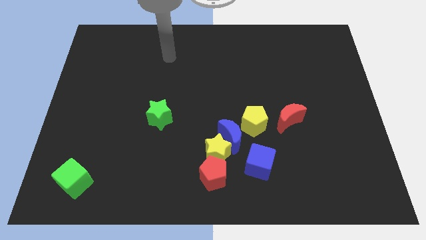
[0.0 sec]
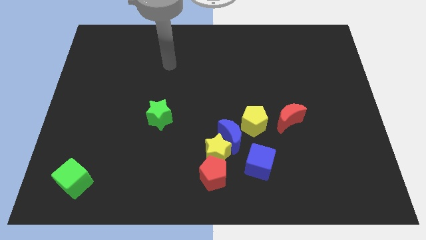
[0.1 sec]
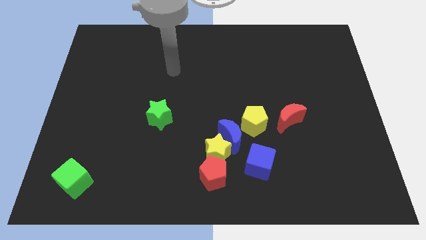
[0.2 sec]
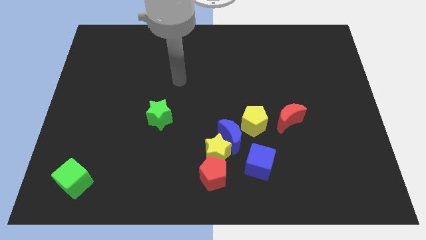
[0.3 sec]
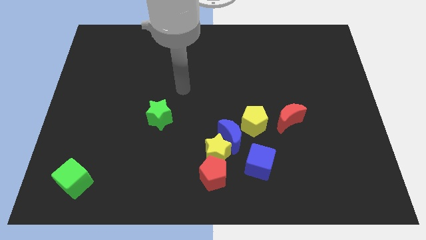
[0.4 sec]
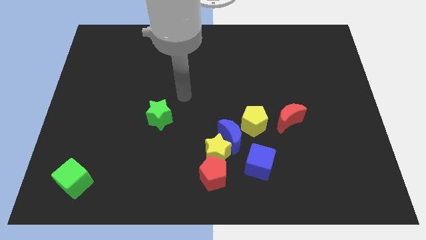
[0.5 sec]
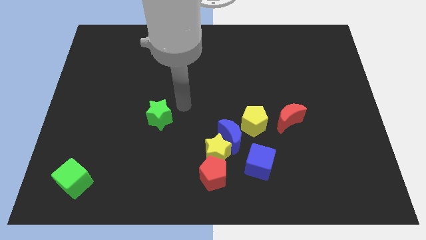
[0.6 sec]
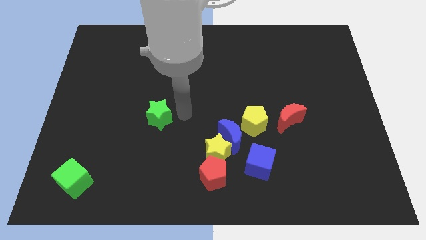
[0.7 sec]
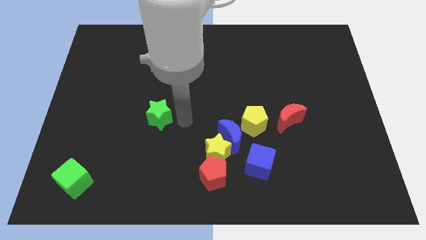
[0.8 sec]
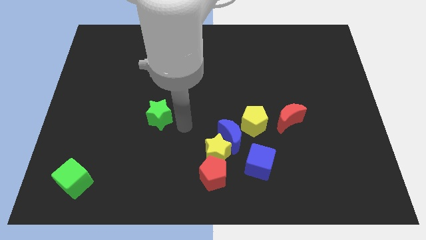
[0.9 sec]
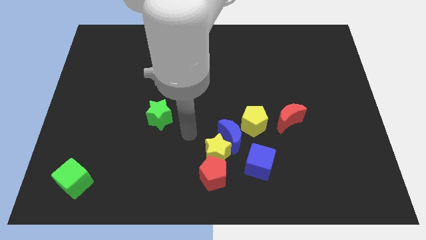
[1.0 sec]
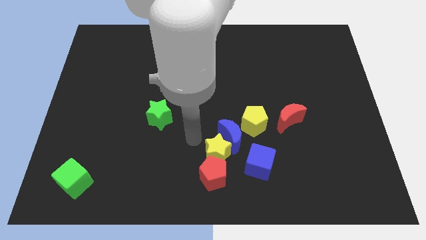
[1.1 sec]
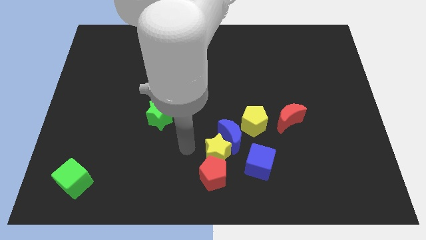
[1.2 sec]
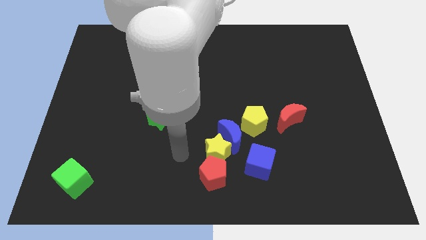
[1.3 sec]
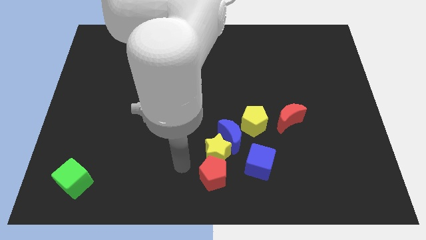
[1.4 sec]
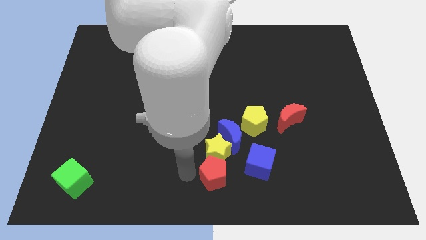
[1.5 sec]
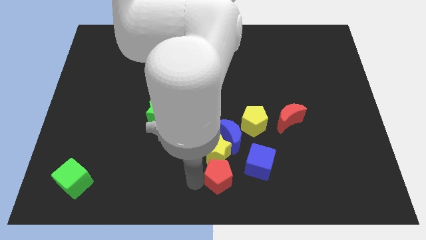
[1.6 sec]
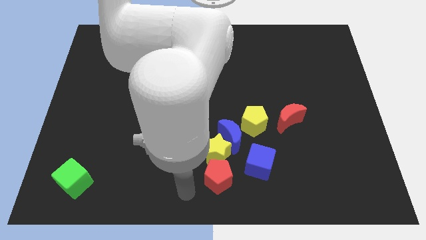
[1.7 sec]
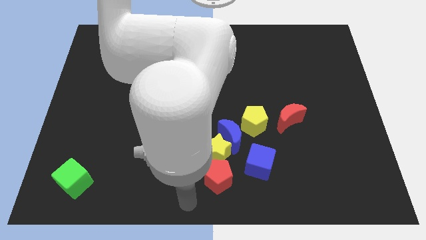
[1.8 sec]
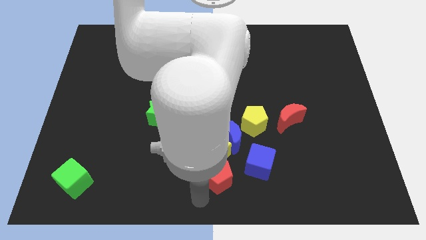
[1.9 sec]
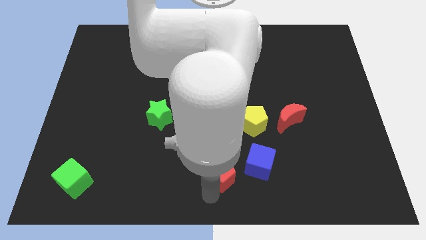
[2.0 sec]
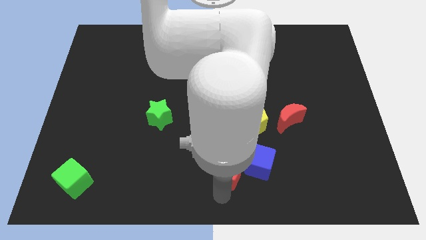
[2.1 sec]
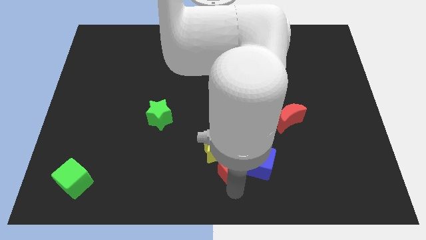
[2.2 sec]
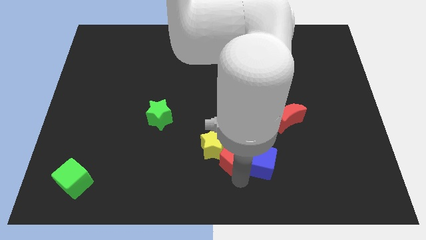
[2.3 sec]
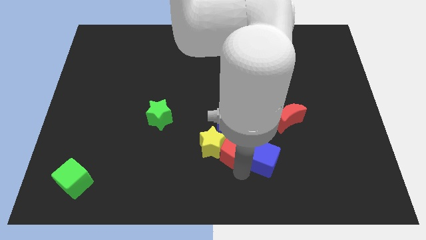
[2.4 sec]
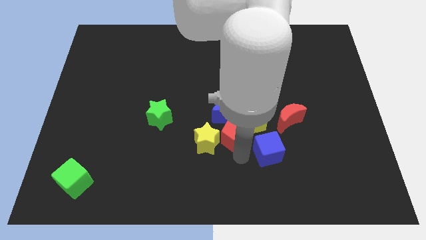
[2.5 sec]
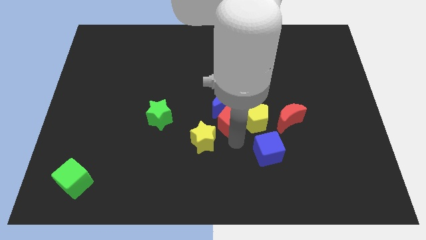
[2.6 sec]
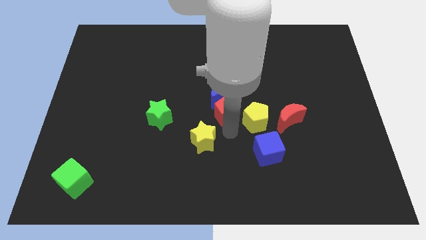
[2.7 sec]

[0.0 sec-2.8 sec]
move the yellow star away from the blue moon, red pentagon, and blue cube

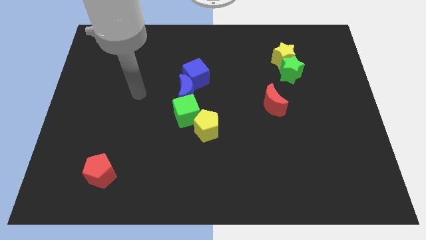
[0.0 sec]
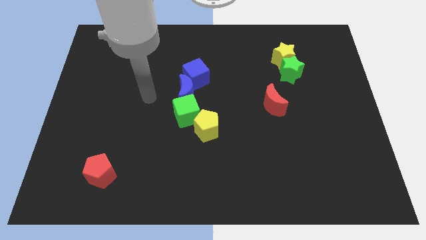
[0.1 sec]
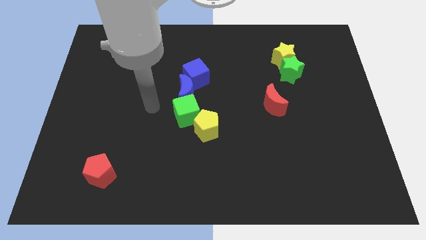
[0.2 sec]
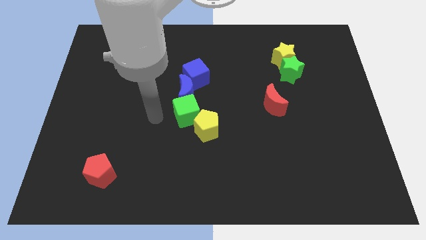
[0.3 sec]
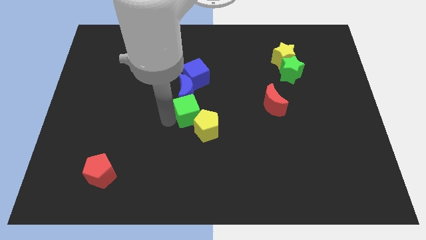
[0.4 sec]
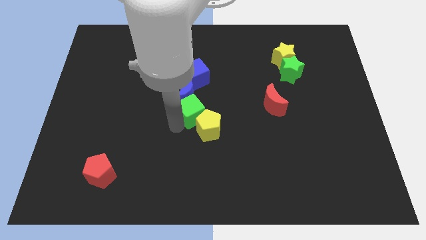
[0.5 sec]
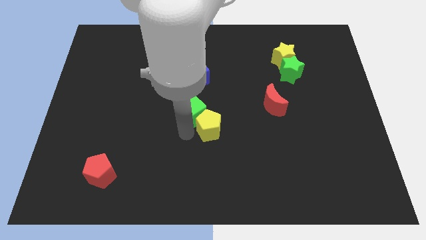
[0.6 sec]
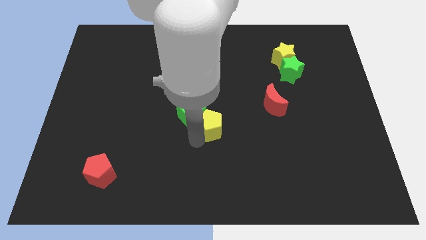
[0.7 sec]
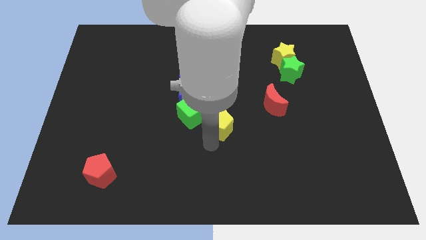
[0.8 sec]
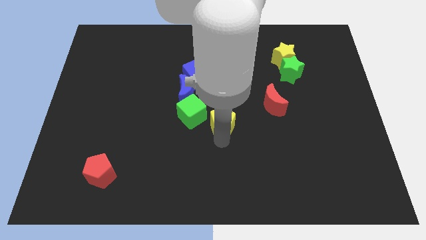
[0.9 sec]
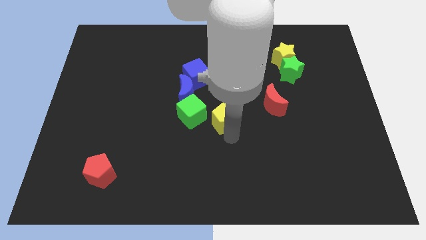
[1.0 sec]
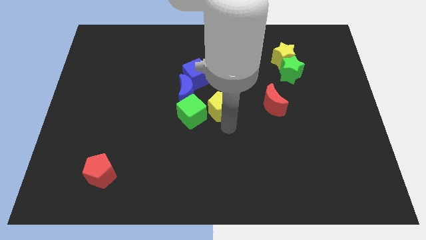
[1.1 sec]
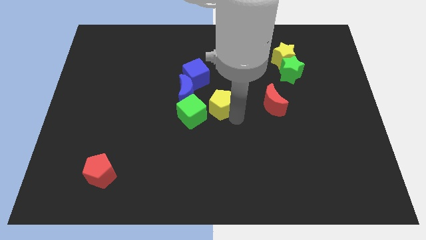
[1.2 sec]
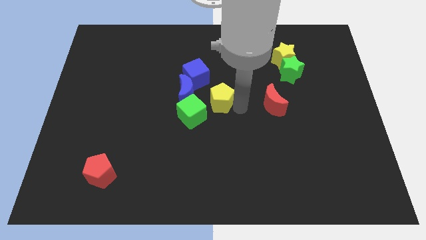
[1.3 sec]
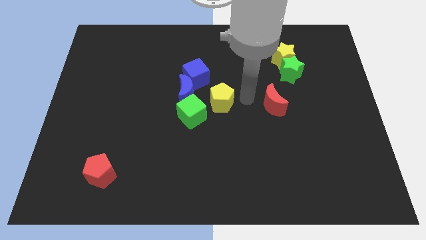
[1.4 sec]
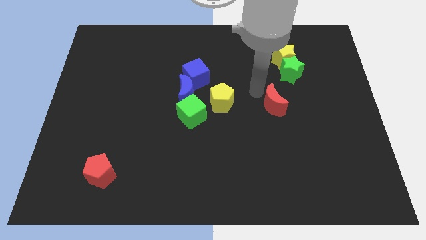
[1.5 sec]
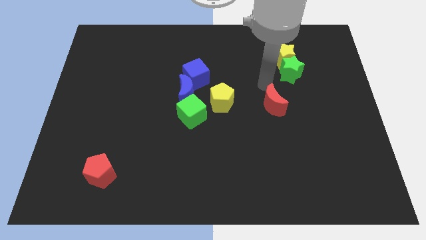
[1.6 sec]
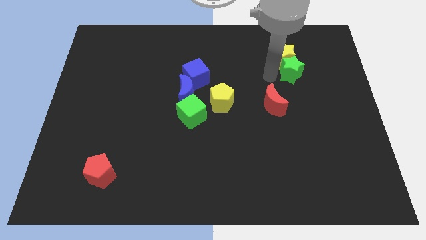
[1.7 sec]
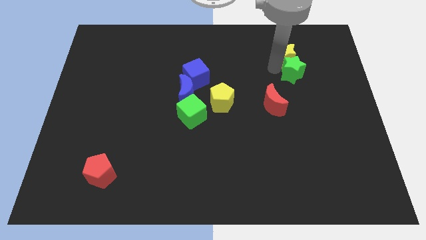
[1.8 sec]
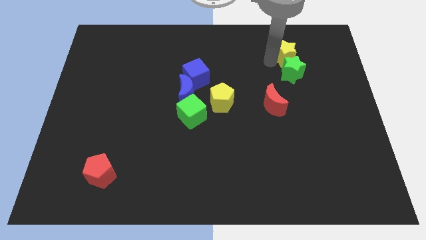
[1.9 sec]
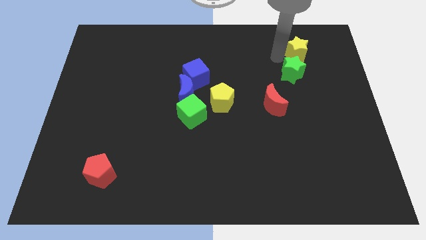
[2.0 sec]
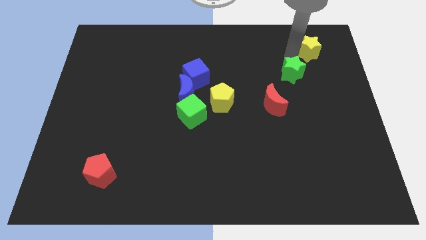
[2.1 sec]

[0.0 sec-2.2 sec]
move the green star away from the yellow star

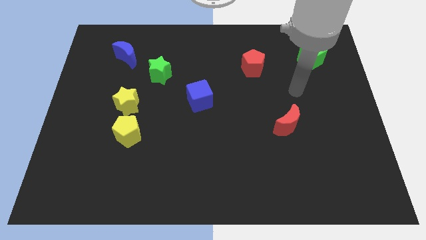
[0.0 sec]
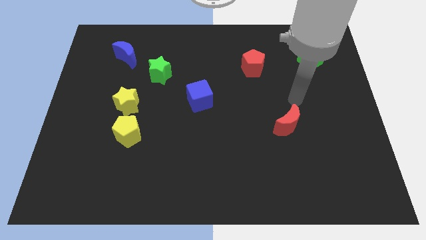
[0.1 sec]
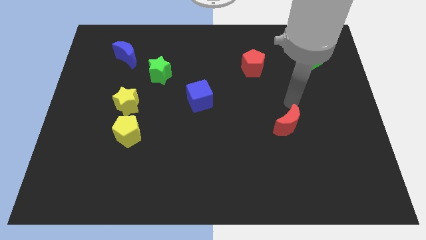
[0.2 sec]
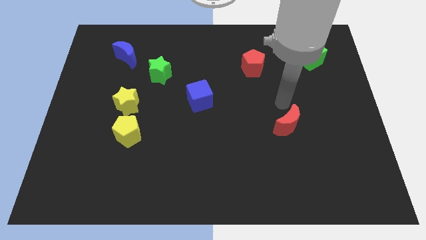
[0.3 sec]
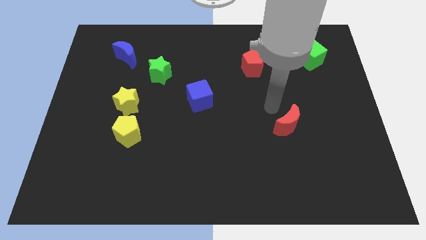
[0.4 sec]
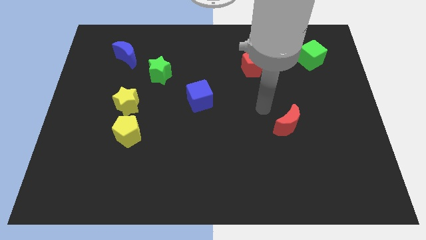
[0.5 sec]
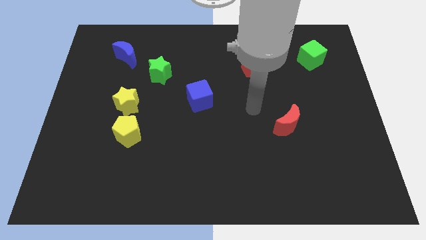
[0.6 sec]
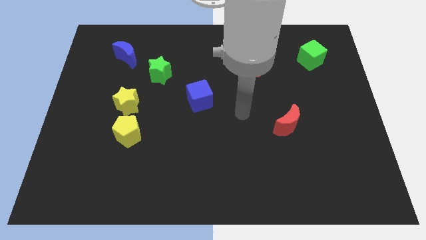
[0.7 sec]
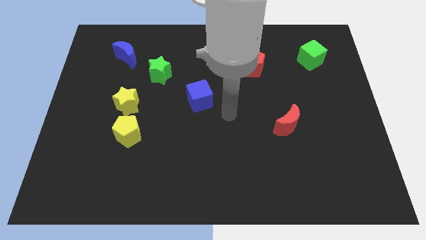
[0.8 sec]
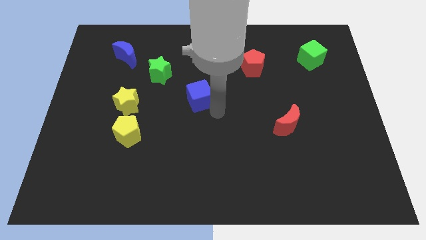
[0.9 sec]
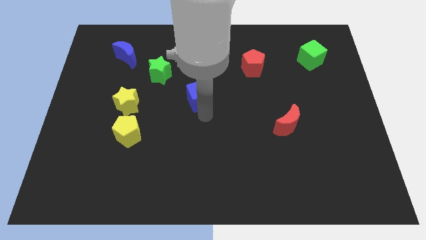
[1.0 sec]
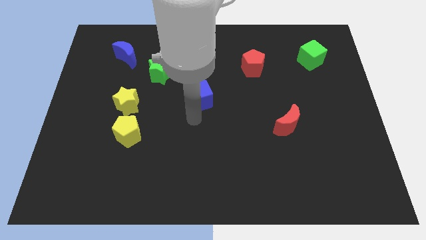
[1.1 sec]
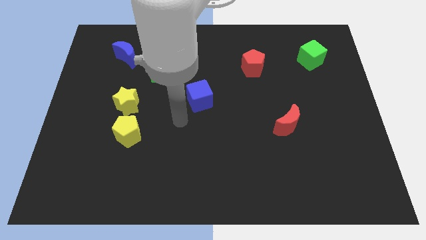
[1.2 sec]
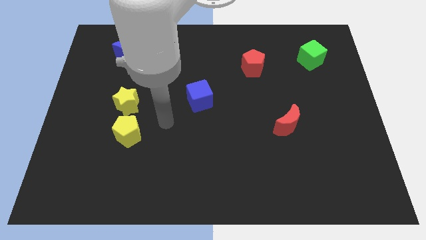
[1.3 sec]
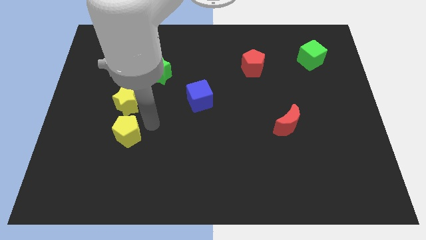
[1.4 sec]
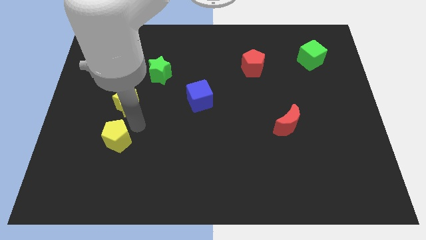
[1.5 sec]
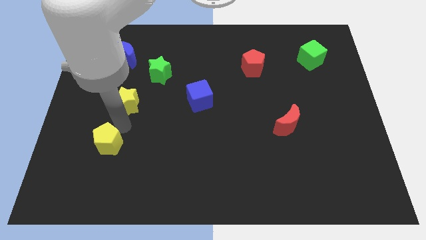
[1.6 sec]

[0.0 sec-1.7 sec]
move the yellow star away from the yellow pentagon

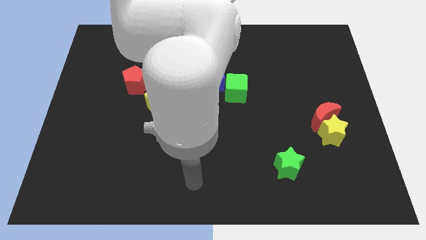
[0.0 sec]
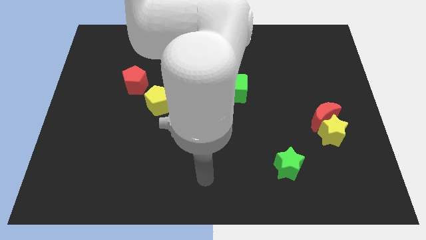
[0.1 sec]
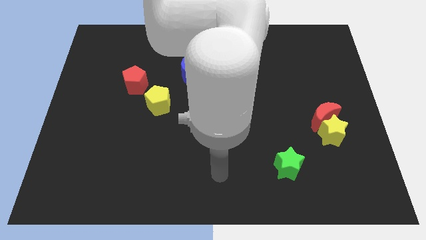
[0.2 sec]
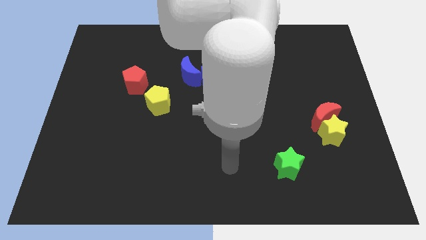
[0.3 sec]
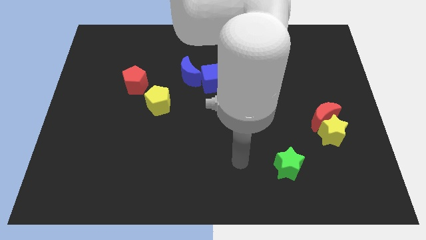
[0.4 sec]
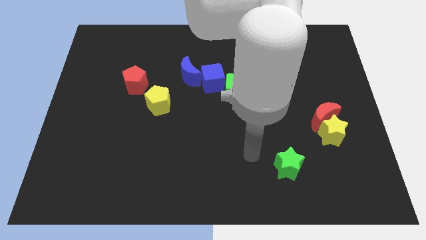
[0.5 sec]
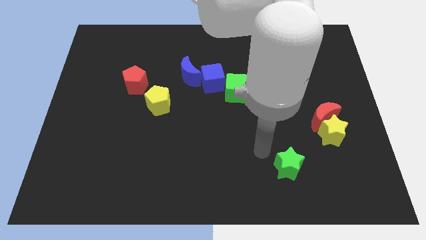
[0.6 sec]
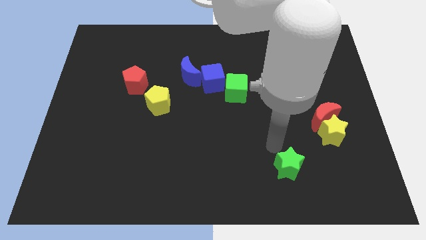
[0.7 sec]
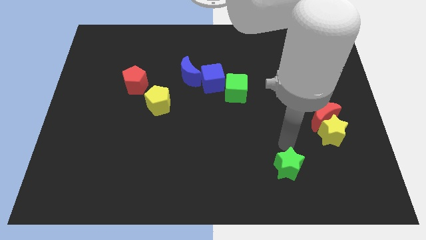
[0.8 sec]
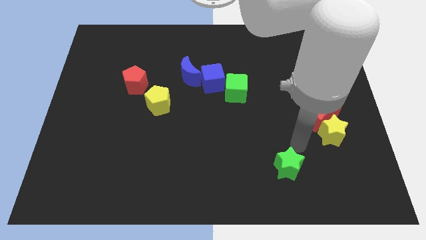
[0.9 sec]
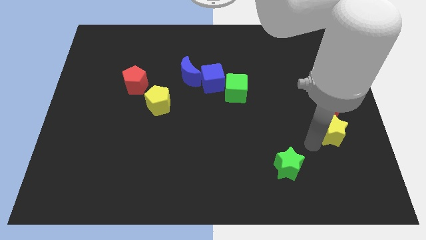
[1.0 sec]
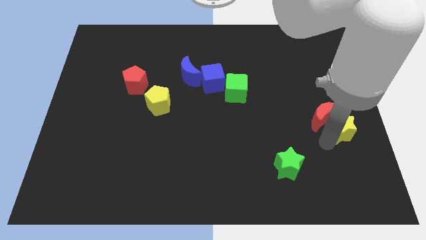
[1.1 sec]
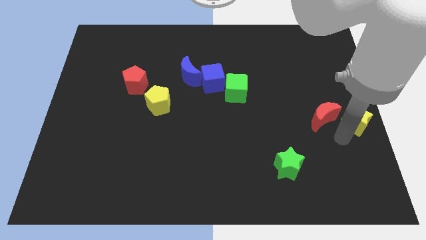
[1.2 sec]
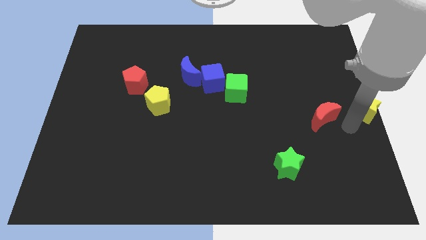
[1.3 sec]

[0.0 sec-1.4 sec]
pull the red moon apart from the yellow star

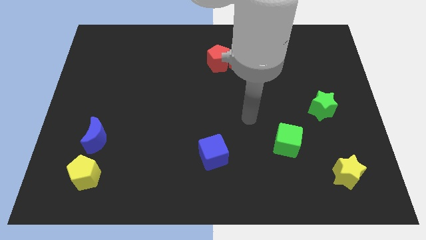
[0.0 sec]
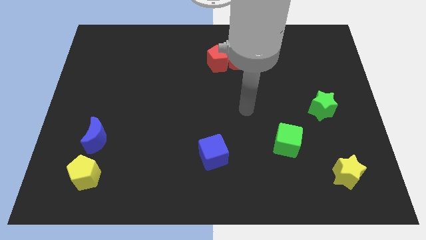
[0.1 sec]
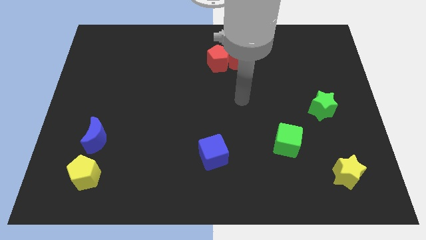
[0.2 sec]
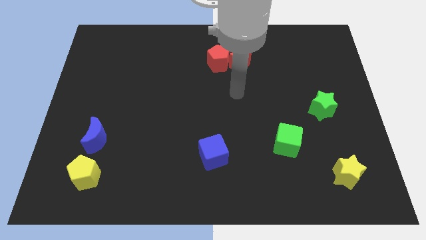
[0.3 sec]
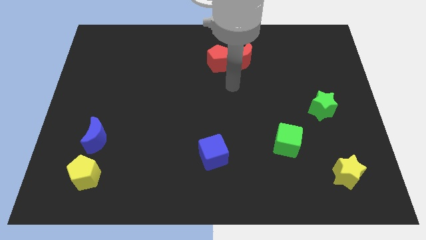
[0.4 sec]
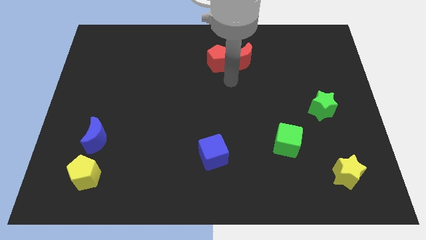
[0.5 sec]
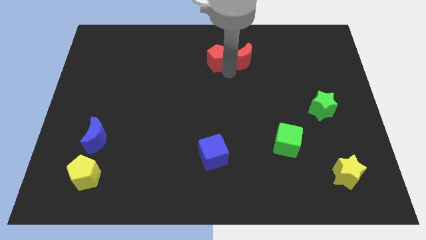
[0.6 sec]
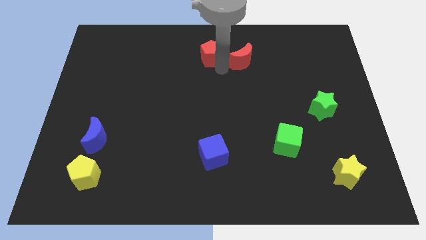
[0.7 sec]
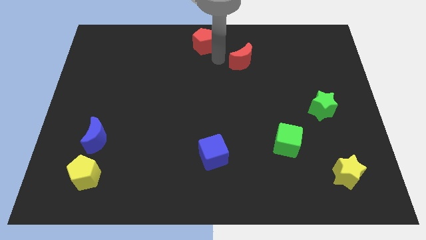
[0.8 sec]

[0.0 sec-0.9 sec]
move the red moon away from the red pentagon

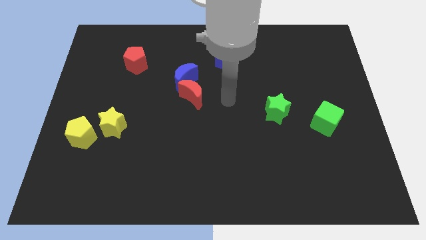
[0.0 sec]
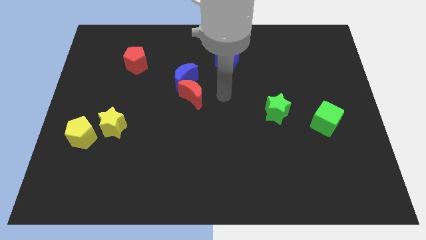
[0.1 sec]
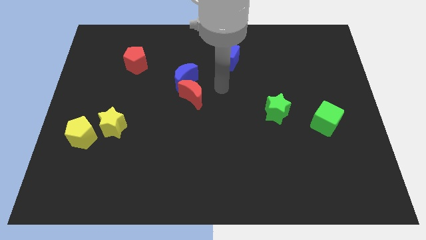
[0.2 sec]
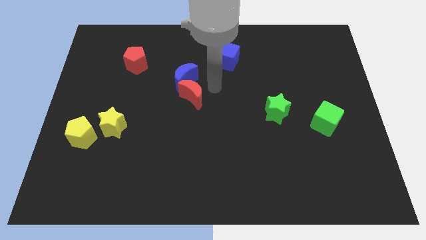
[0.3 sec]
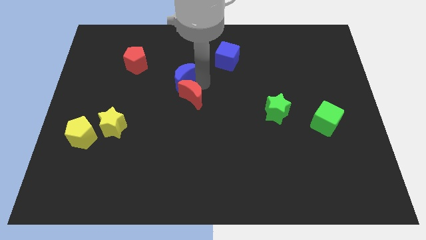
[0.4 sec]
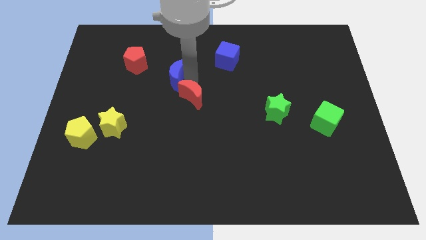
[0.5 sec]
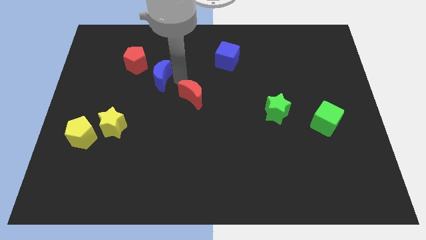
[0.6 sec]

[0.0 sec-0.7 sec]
move the red moon away from the blue moon
